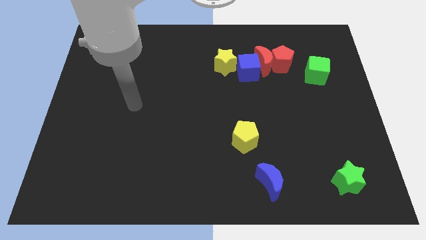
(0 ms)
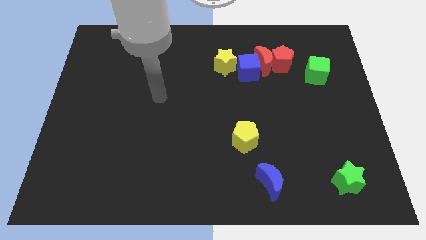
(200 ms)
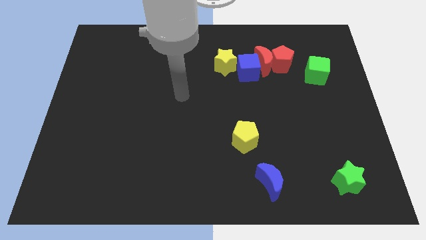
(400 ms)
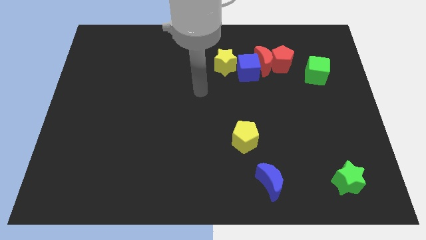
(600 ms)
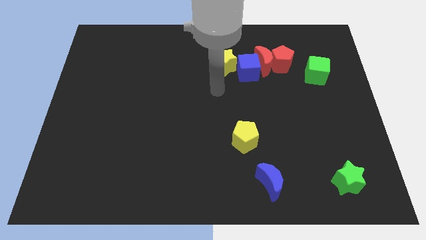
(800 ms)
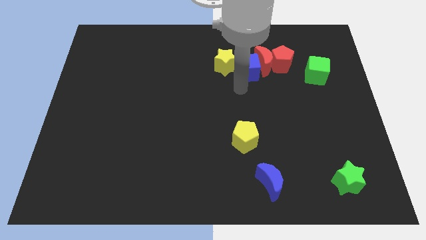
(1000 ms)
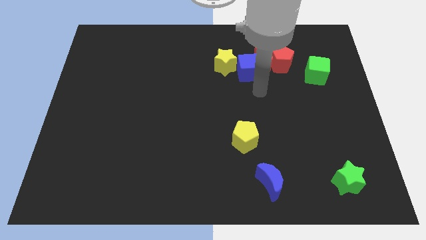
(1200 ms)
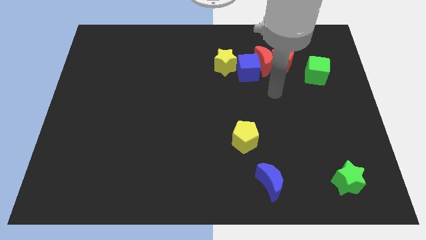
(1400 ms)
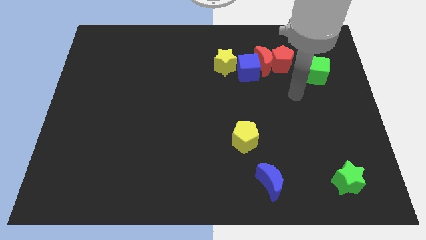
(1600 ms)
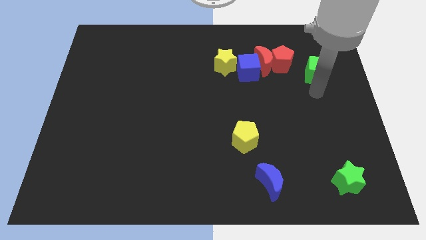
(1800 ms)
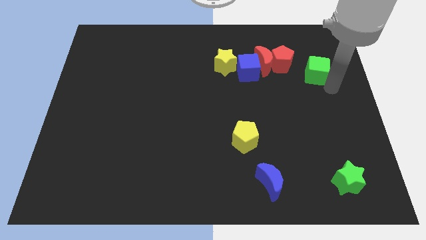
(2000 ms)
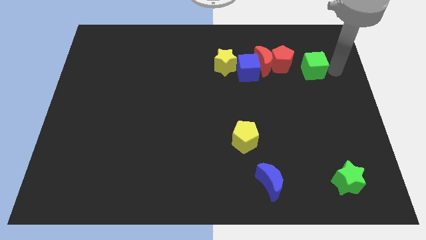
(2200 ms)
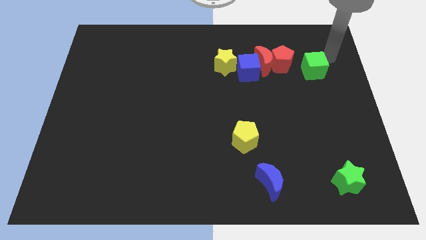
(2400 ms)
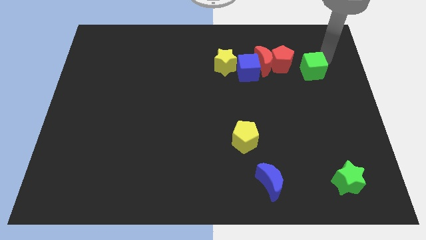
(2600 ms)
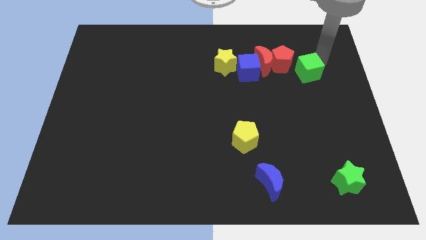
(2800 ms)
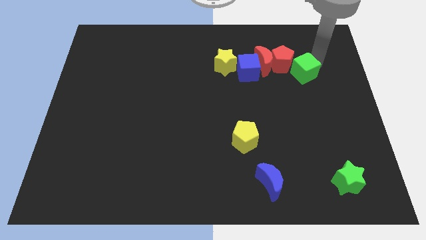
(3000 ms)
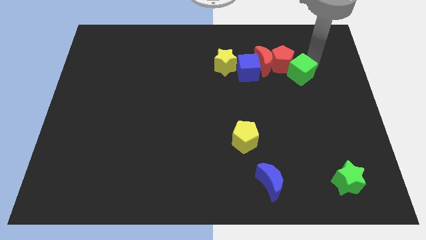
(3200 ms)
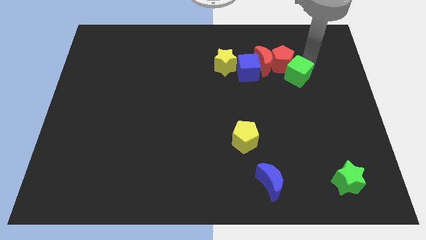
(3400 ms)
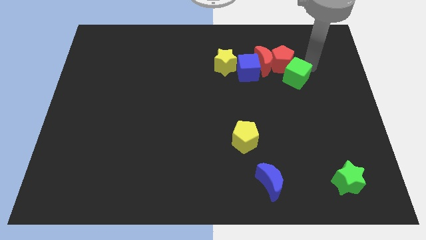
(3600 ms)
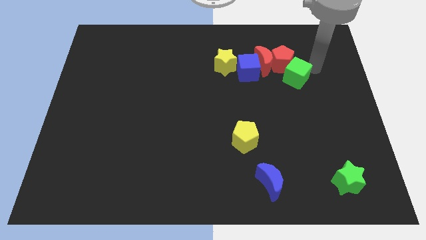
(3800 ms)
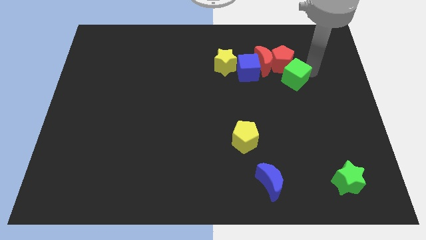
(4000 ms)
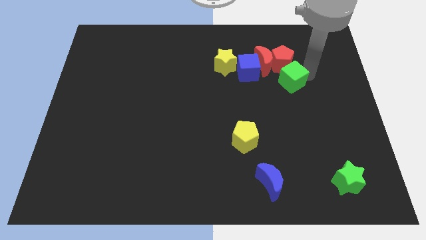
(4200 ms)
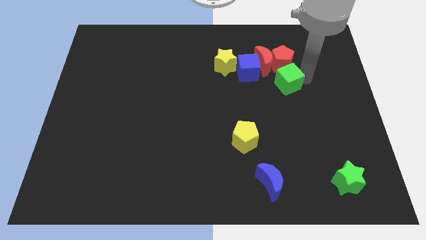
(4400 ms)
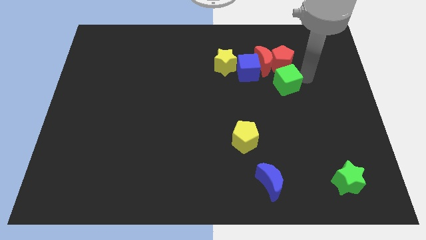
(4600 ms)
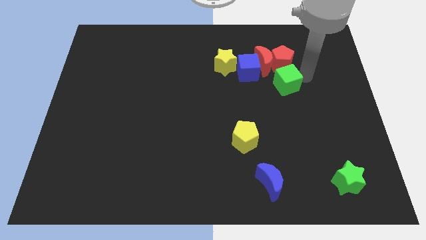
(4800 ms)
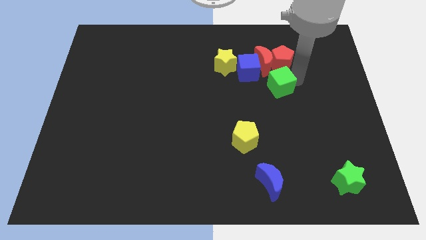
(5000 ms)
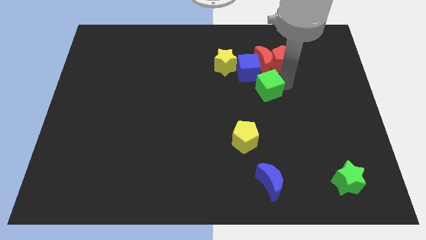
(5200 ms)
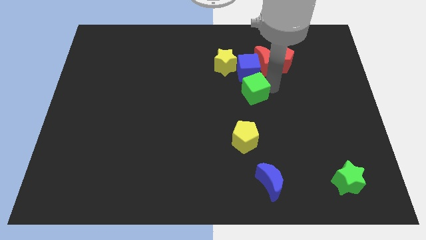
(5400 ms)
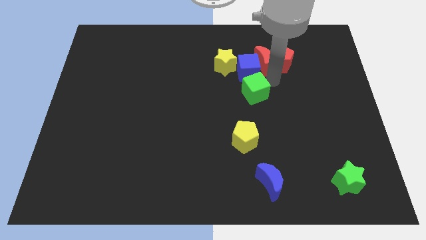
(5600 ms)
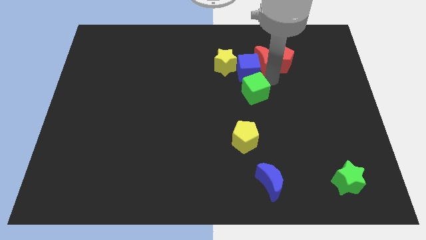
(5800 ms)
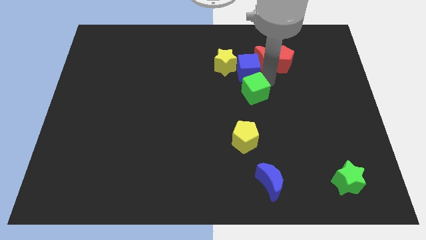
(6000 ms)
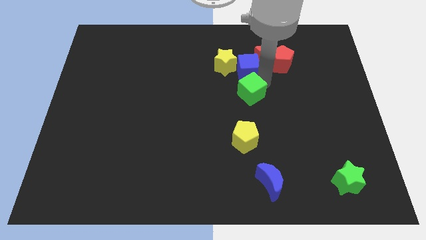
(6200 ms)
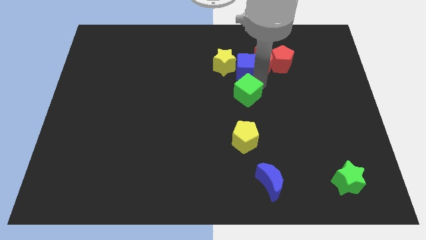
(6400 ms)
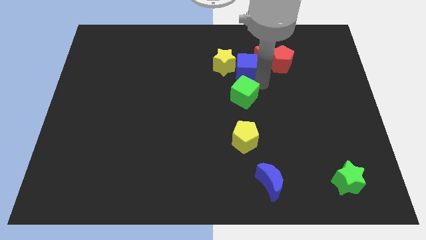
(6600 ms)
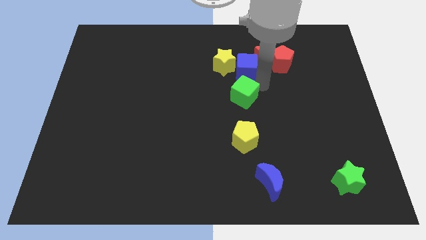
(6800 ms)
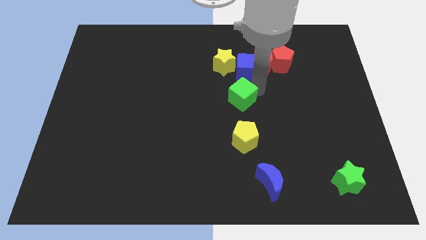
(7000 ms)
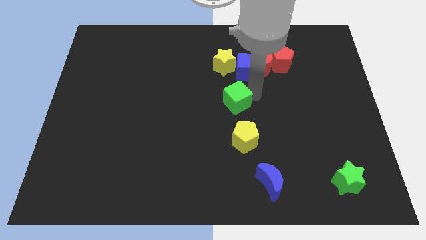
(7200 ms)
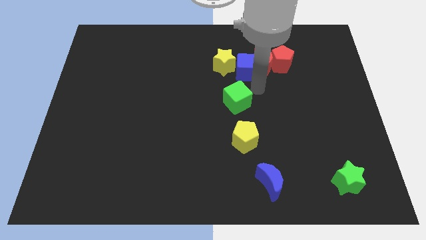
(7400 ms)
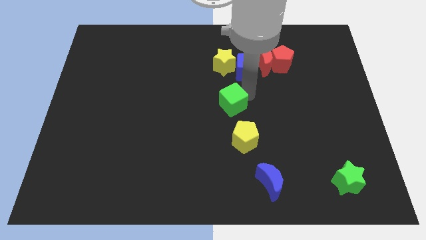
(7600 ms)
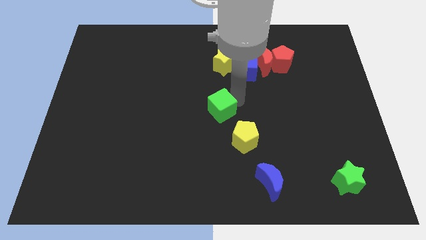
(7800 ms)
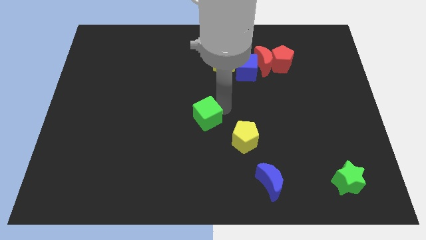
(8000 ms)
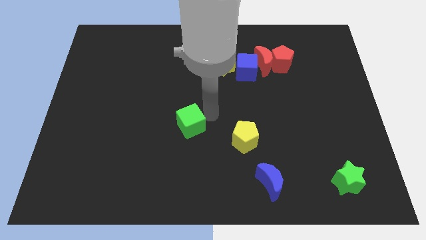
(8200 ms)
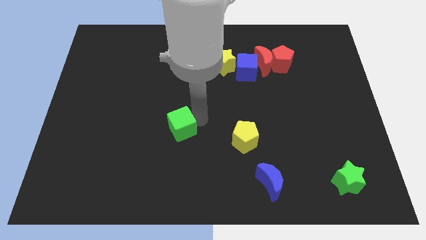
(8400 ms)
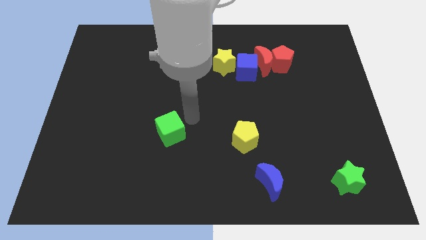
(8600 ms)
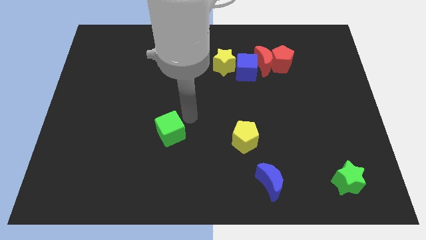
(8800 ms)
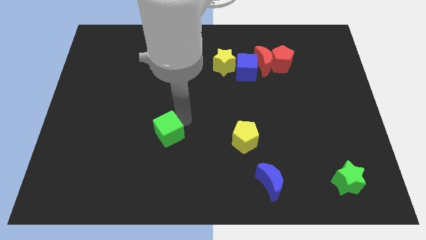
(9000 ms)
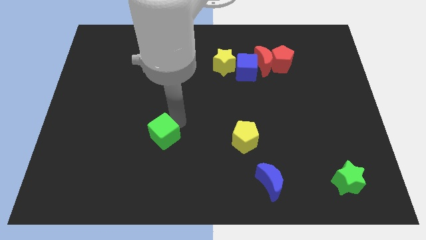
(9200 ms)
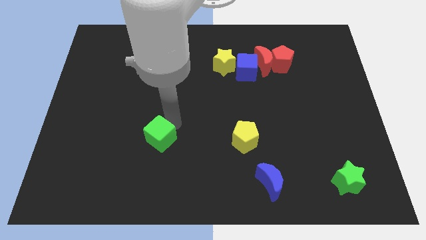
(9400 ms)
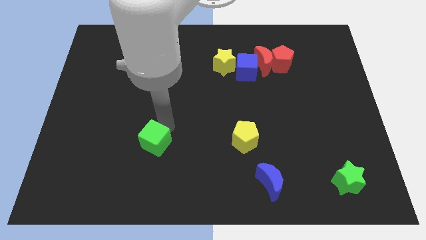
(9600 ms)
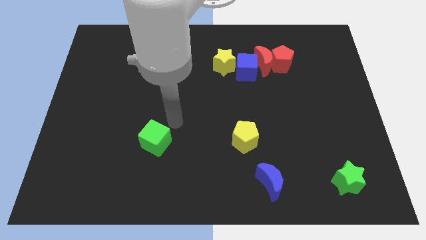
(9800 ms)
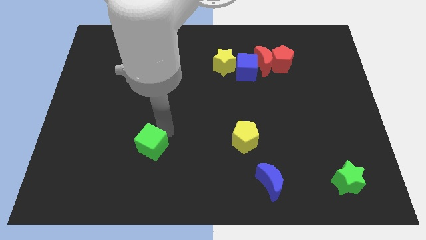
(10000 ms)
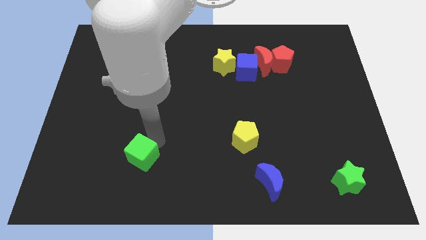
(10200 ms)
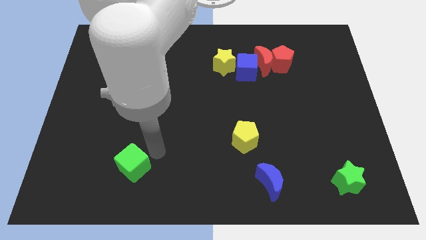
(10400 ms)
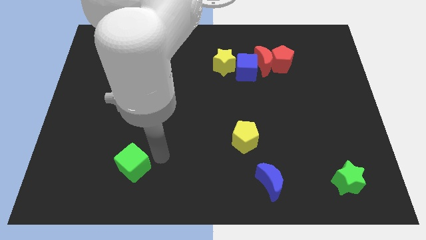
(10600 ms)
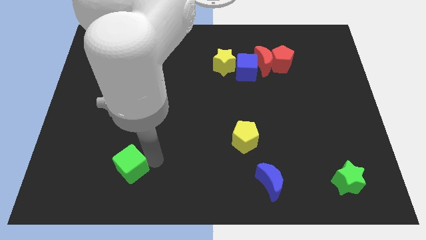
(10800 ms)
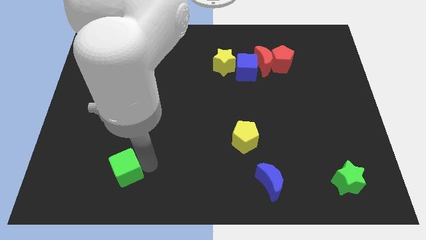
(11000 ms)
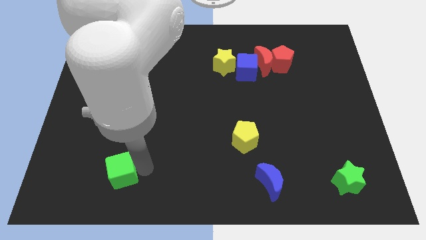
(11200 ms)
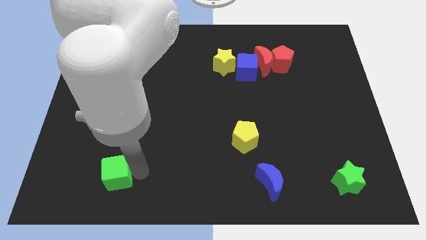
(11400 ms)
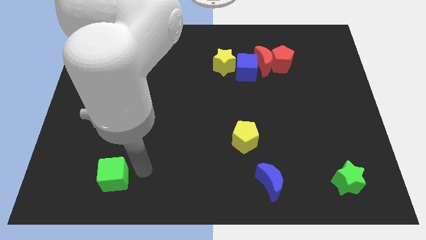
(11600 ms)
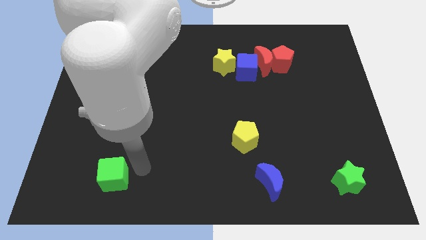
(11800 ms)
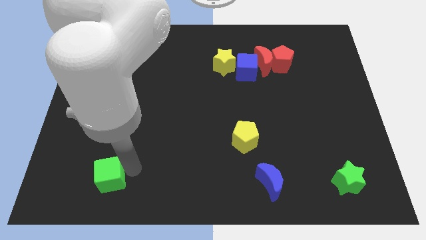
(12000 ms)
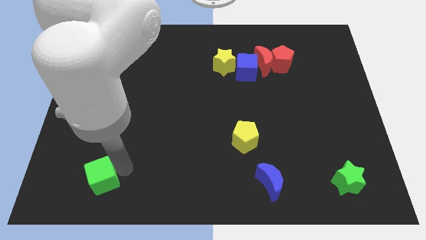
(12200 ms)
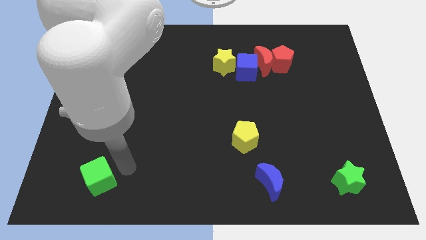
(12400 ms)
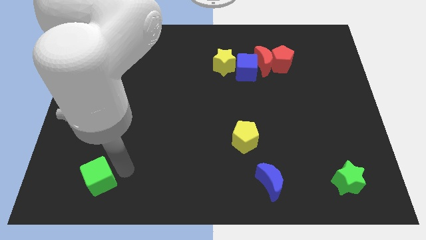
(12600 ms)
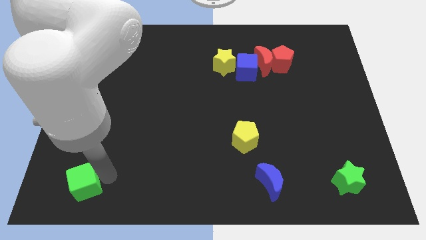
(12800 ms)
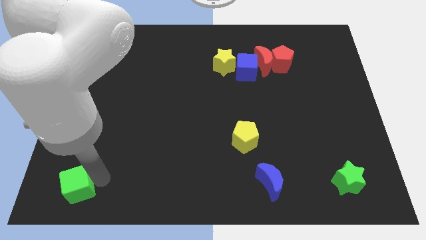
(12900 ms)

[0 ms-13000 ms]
push the green cube to the bottom left corner
